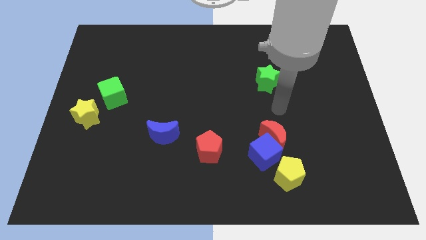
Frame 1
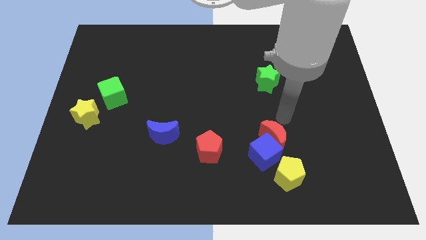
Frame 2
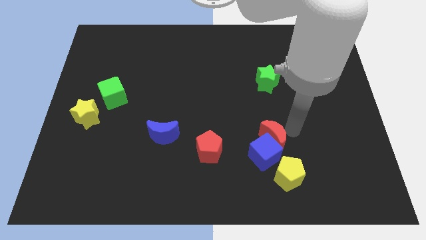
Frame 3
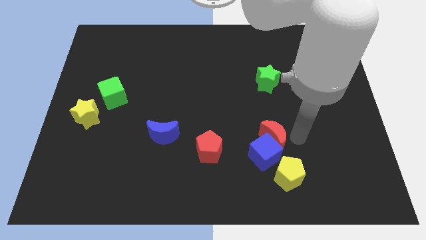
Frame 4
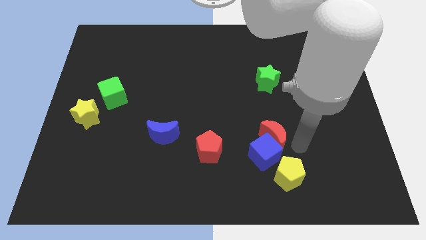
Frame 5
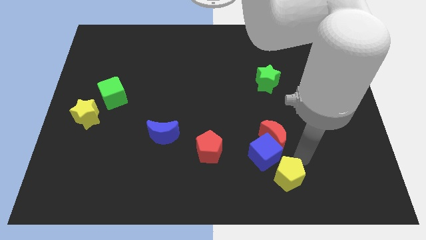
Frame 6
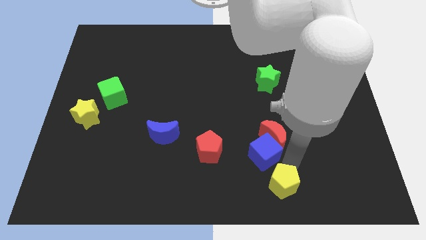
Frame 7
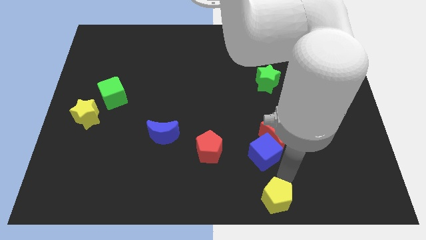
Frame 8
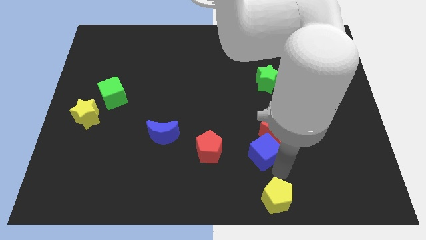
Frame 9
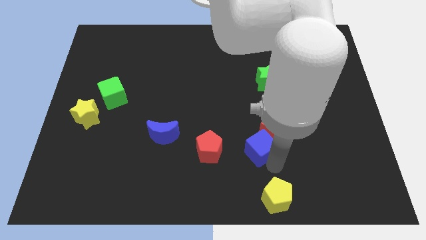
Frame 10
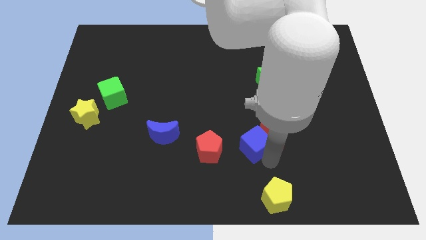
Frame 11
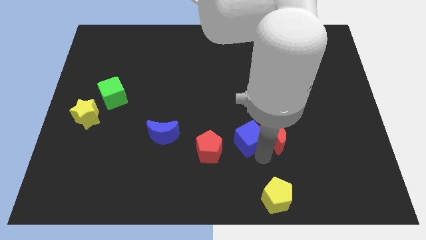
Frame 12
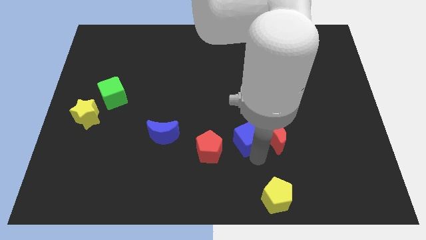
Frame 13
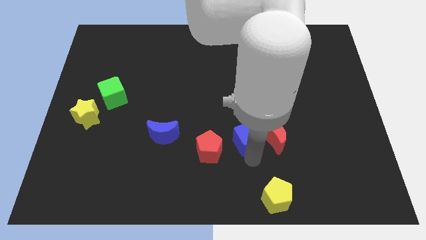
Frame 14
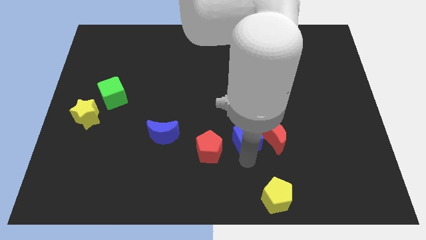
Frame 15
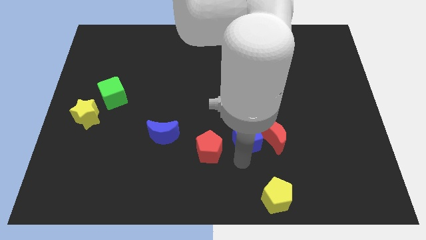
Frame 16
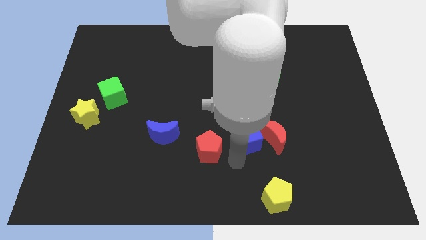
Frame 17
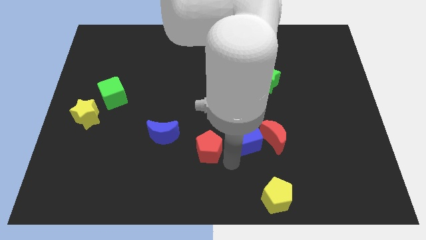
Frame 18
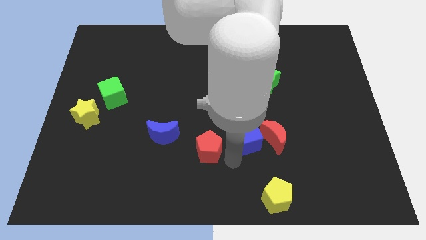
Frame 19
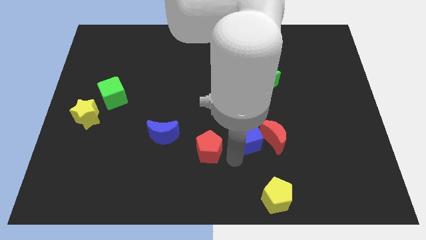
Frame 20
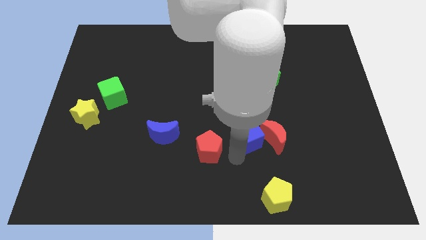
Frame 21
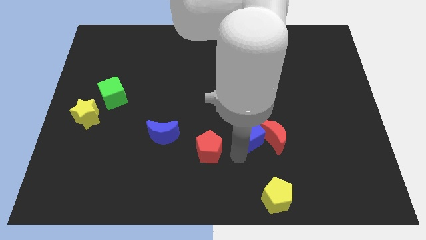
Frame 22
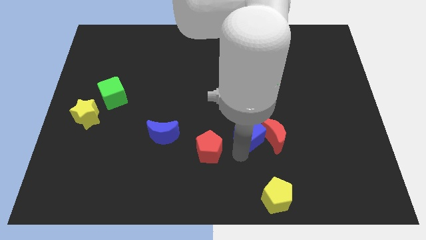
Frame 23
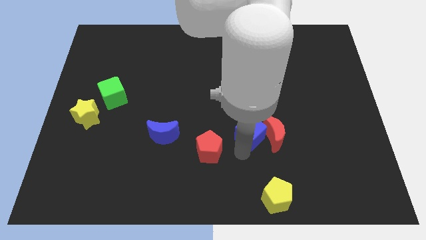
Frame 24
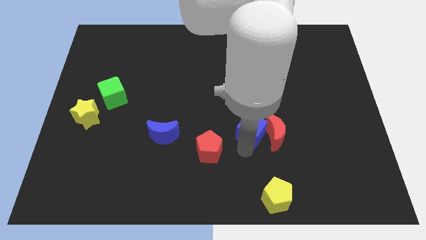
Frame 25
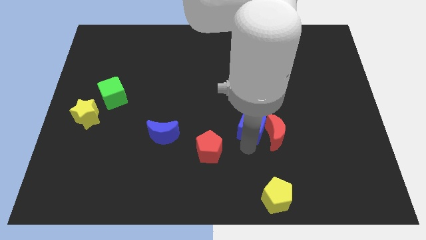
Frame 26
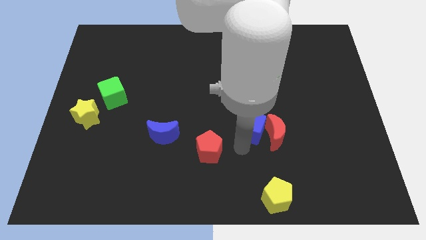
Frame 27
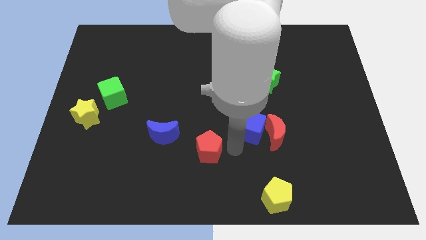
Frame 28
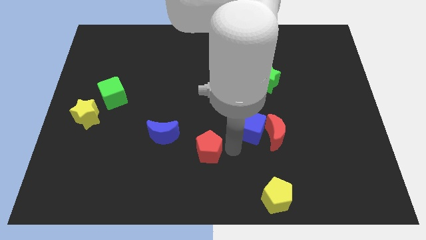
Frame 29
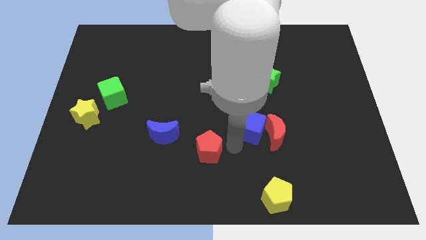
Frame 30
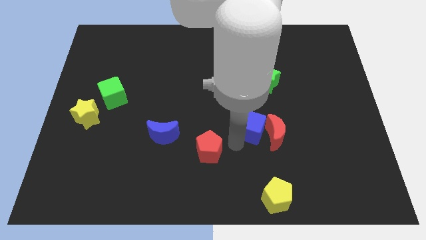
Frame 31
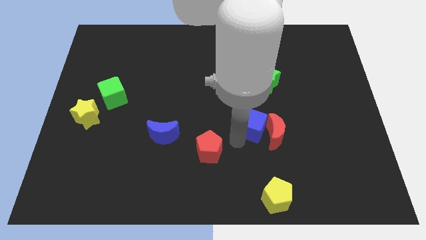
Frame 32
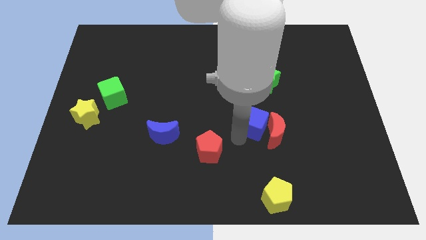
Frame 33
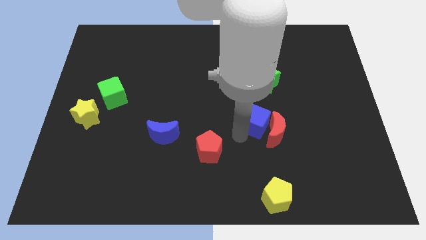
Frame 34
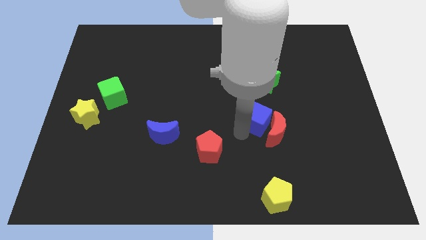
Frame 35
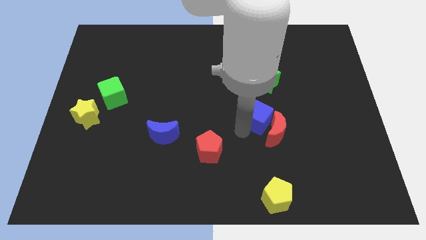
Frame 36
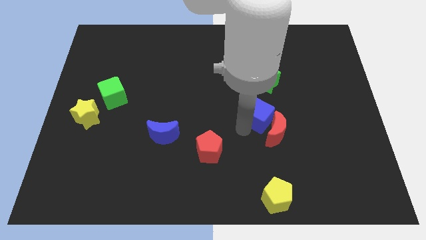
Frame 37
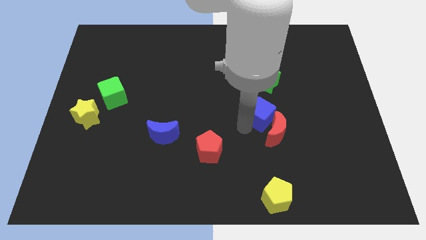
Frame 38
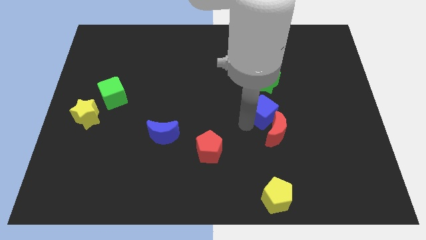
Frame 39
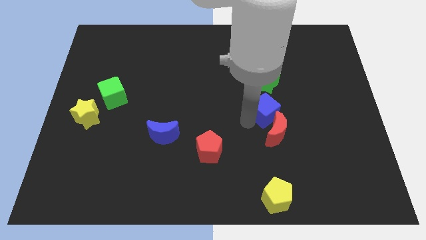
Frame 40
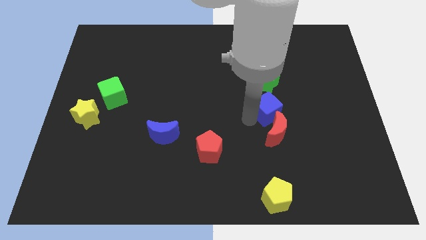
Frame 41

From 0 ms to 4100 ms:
slightly push the blue cube up and right

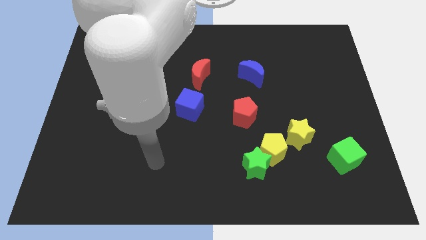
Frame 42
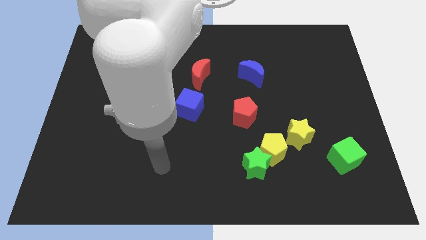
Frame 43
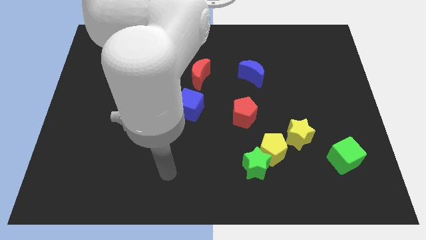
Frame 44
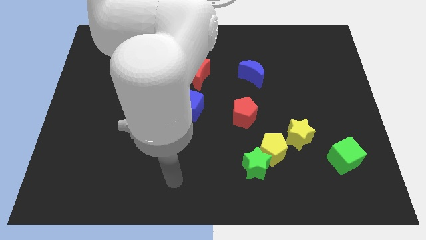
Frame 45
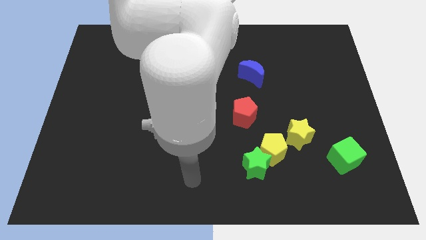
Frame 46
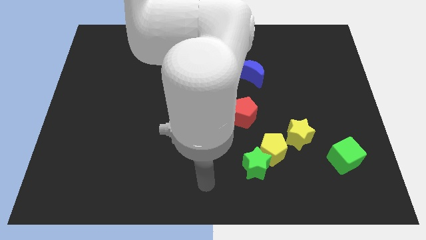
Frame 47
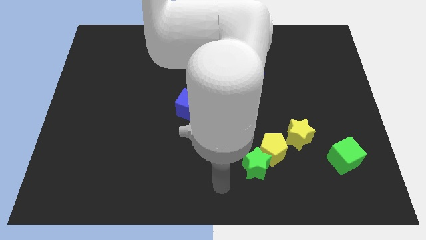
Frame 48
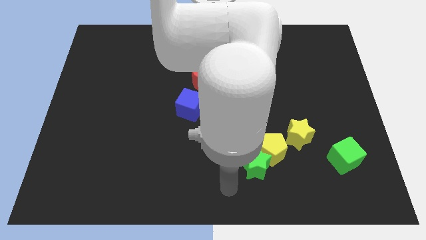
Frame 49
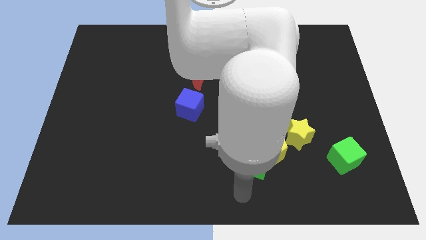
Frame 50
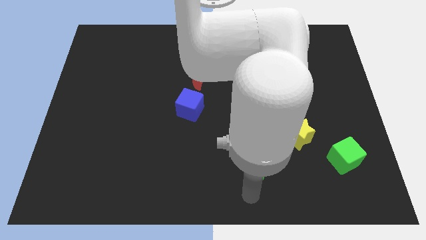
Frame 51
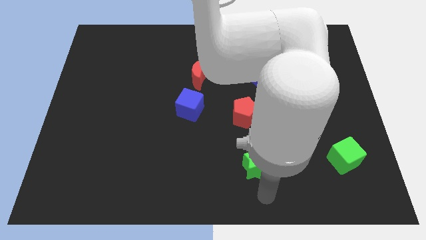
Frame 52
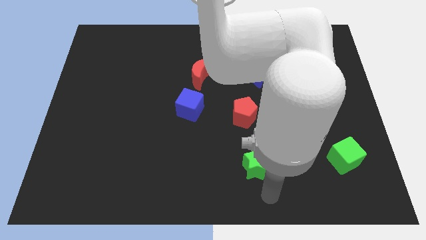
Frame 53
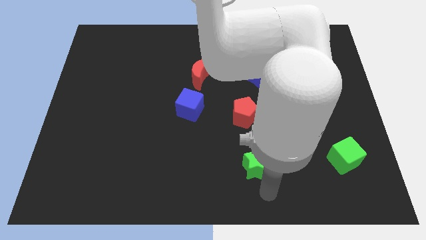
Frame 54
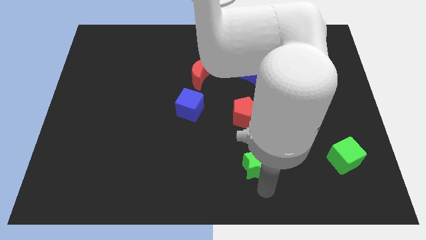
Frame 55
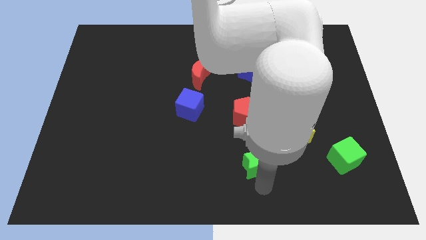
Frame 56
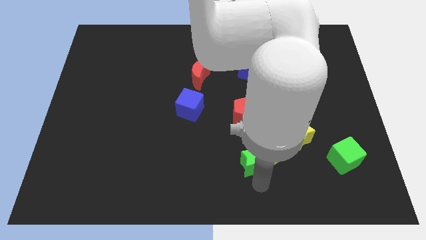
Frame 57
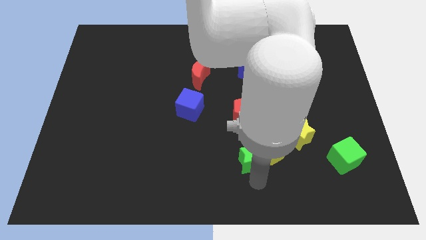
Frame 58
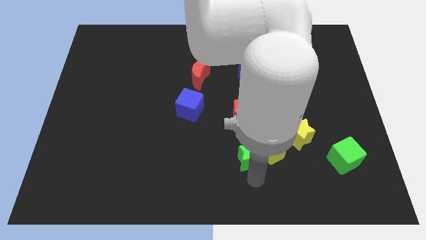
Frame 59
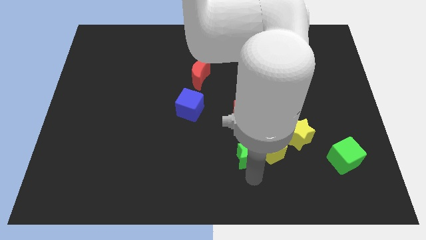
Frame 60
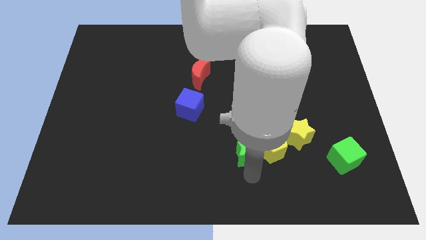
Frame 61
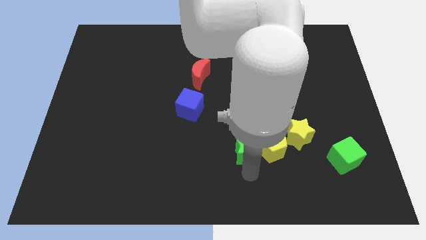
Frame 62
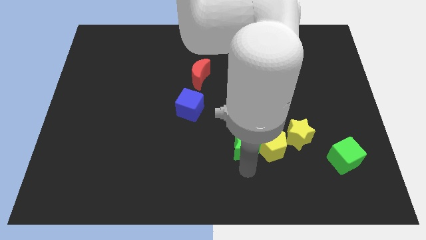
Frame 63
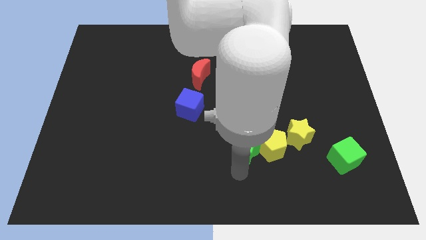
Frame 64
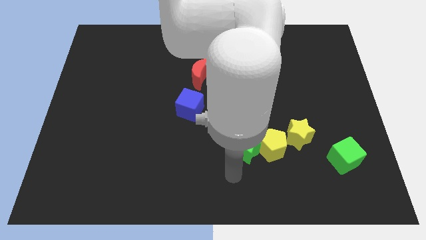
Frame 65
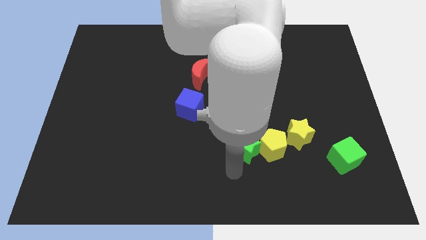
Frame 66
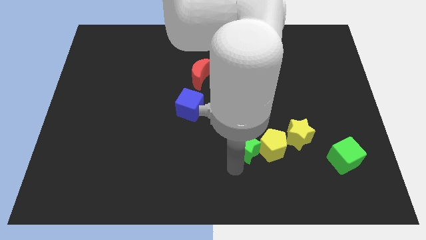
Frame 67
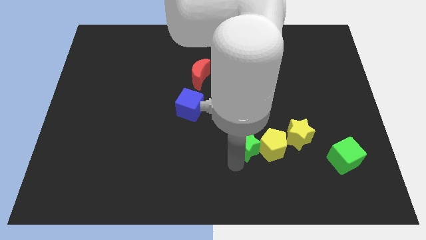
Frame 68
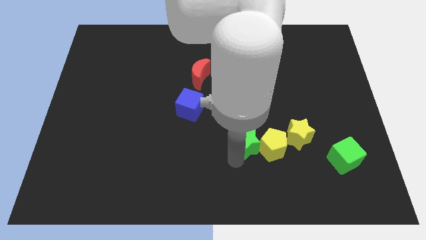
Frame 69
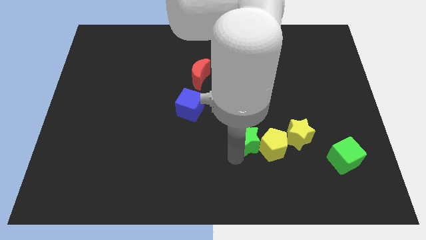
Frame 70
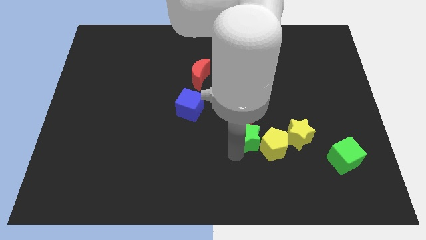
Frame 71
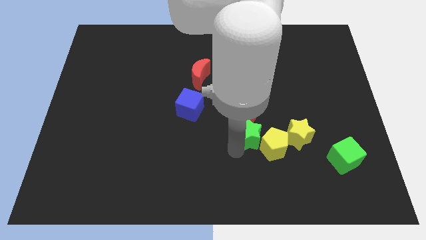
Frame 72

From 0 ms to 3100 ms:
move the green star up a little bit

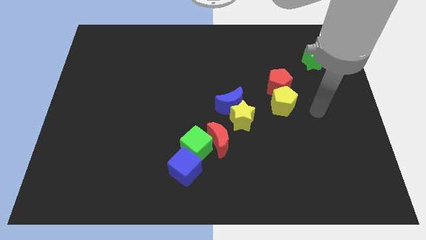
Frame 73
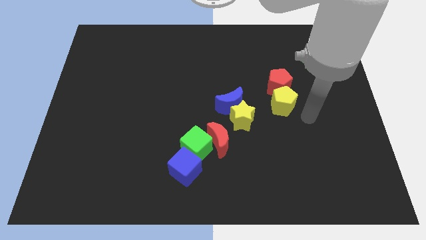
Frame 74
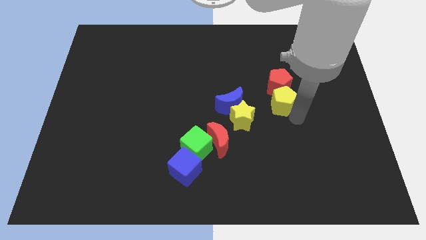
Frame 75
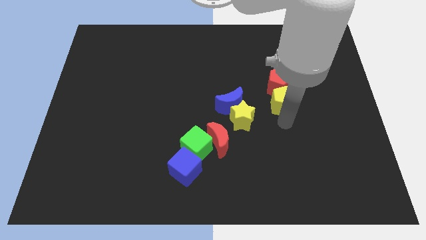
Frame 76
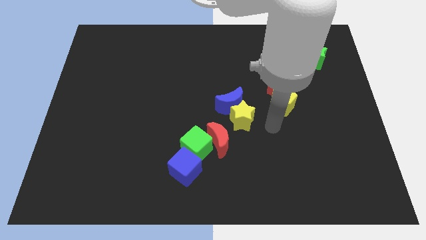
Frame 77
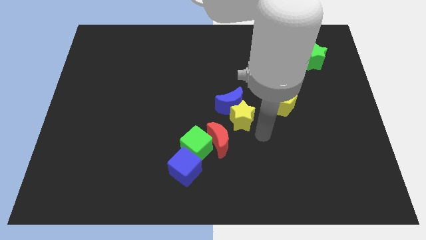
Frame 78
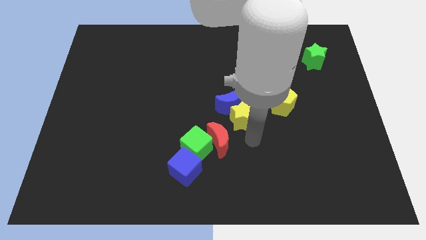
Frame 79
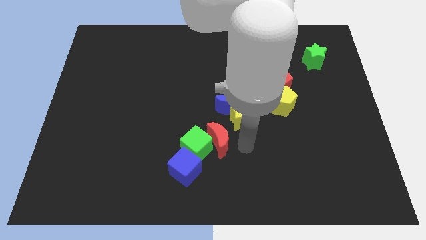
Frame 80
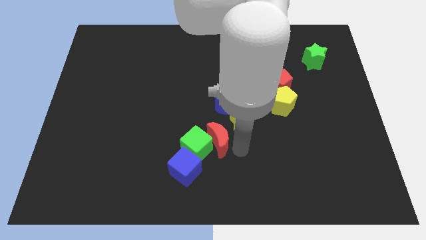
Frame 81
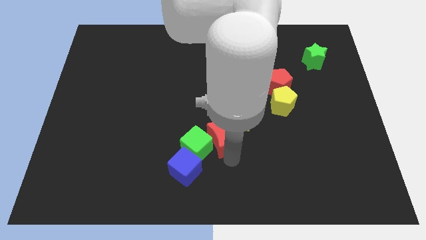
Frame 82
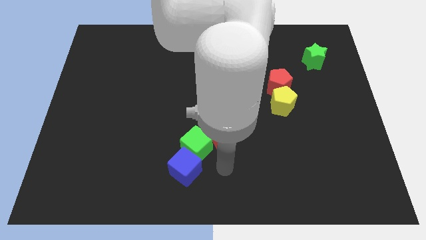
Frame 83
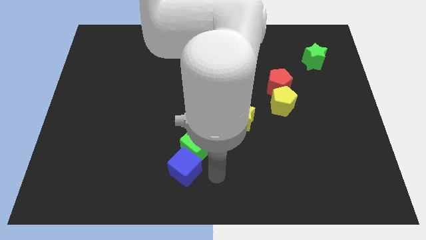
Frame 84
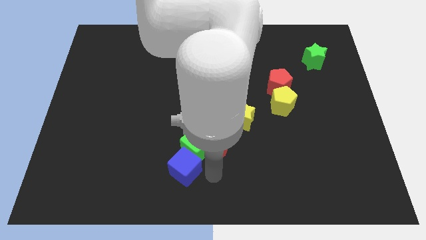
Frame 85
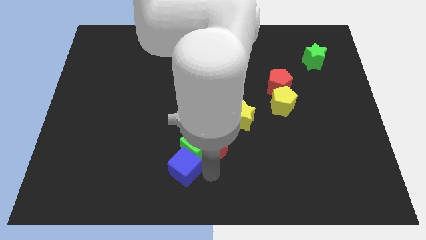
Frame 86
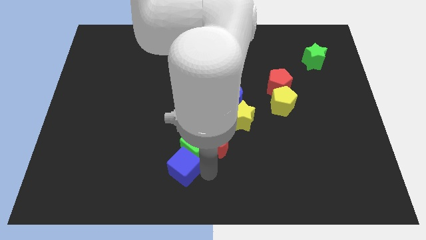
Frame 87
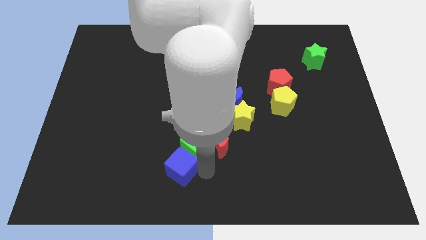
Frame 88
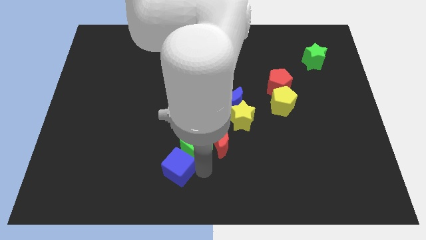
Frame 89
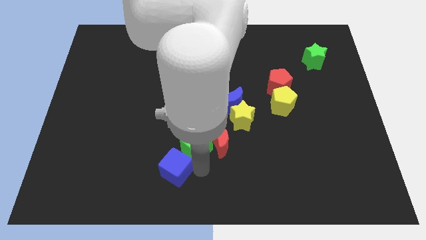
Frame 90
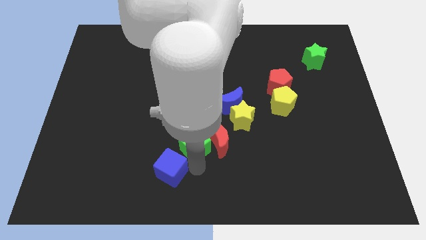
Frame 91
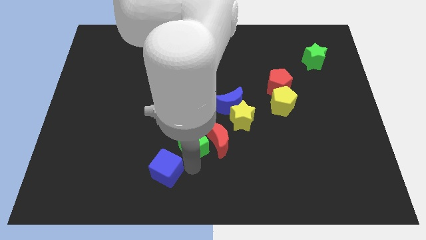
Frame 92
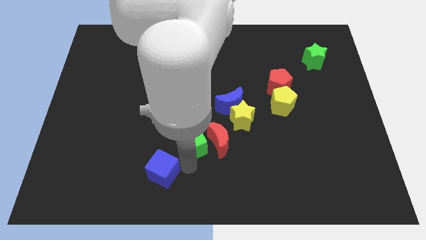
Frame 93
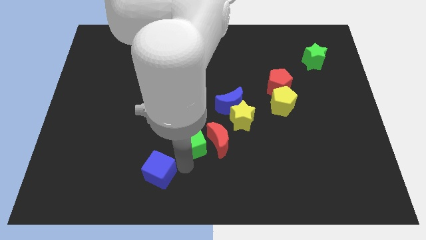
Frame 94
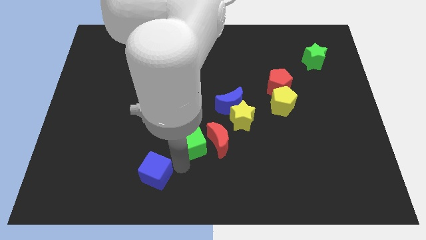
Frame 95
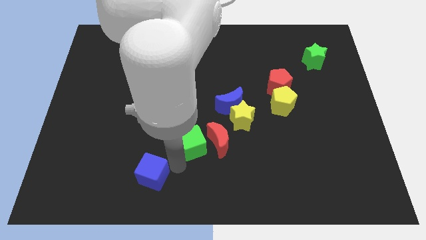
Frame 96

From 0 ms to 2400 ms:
slightly push the blue cube to the left
